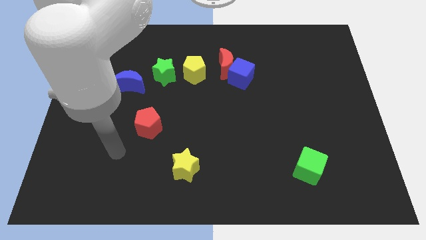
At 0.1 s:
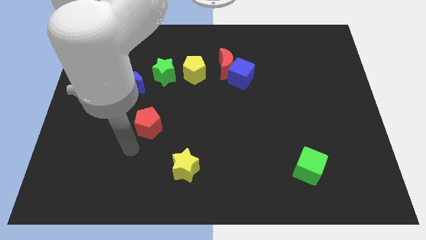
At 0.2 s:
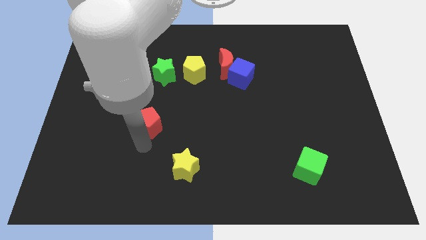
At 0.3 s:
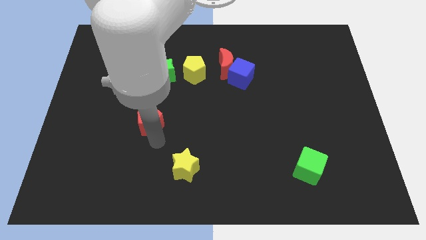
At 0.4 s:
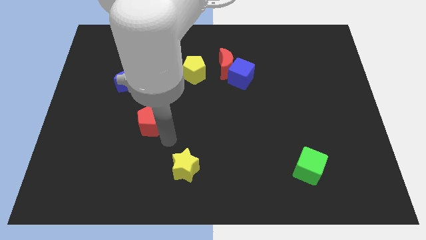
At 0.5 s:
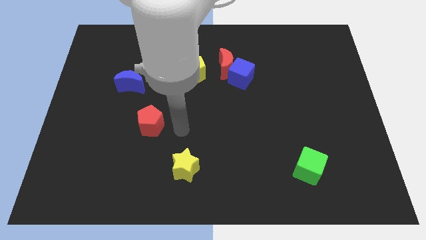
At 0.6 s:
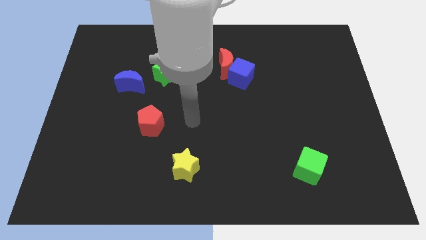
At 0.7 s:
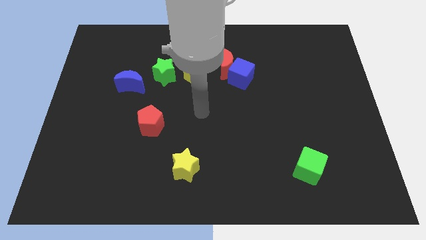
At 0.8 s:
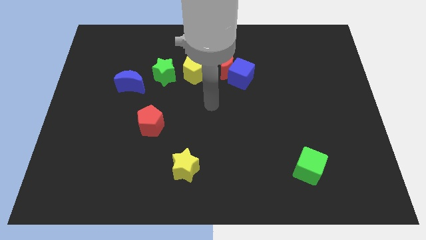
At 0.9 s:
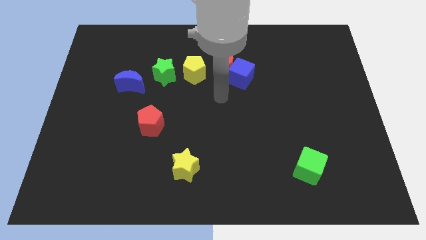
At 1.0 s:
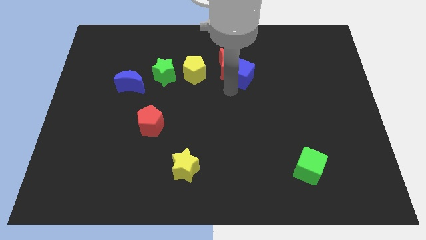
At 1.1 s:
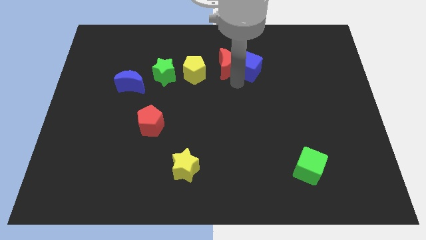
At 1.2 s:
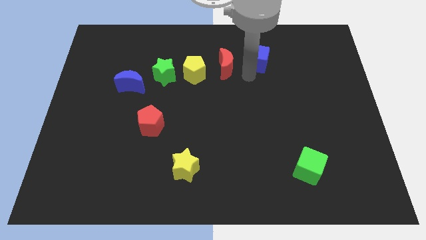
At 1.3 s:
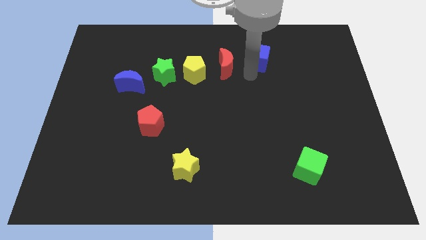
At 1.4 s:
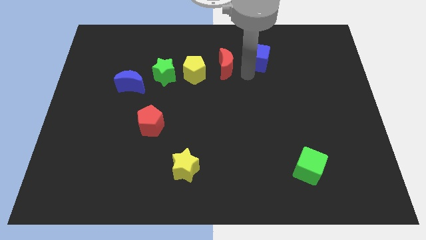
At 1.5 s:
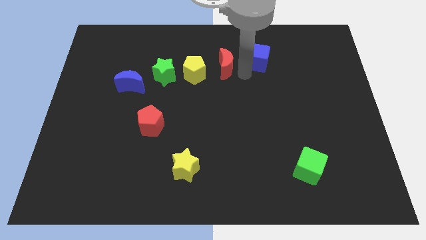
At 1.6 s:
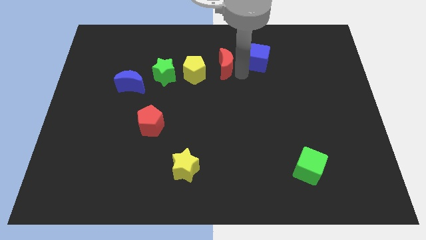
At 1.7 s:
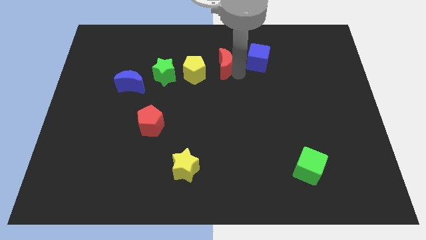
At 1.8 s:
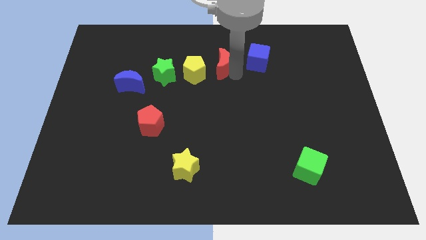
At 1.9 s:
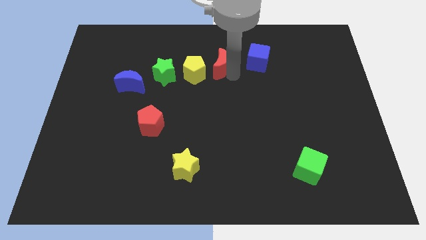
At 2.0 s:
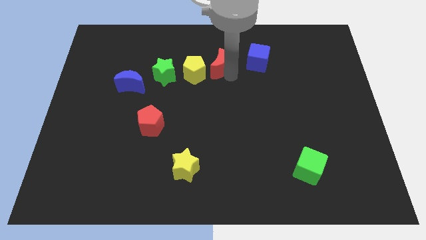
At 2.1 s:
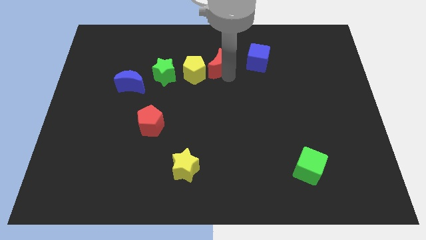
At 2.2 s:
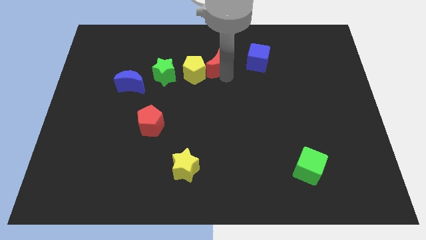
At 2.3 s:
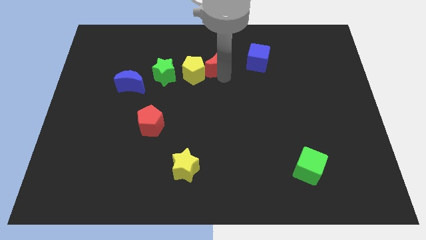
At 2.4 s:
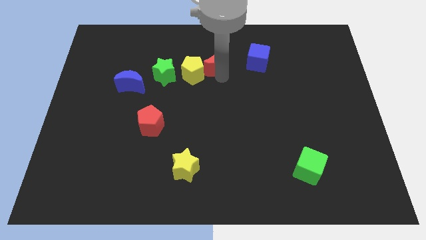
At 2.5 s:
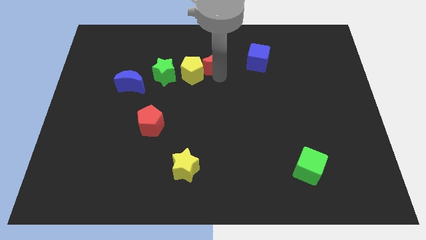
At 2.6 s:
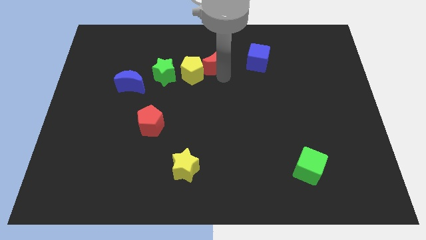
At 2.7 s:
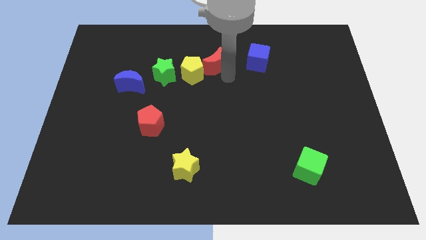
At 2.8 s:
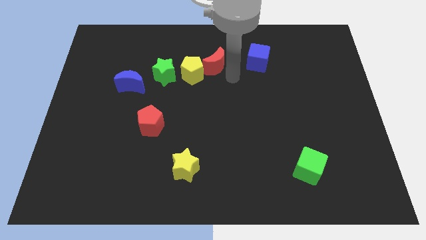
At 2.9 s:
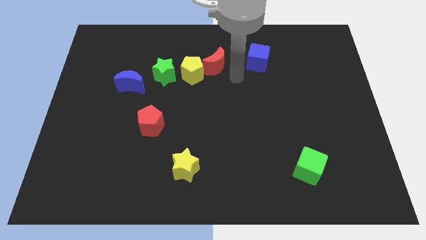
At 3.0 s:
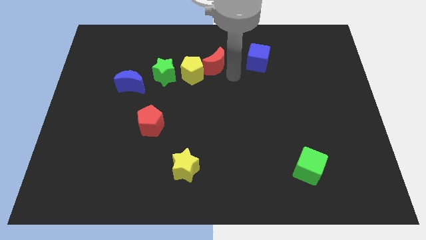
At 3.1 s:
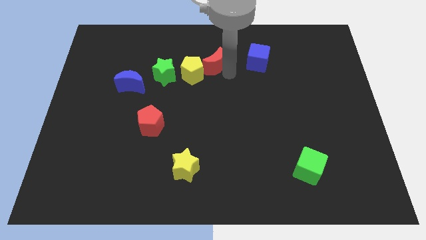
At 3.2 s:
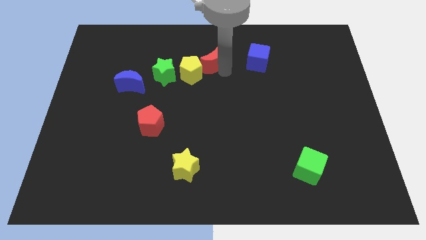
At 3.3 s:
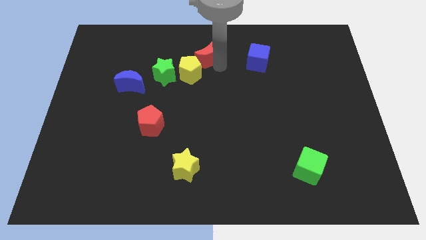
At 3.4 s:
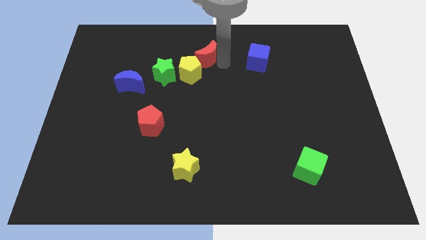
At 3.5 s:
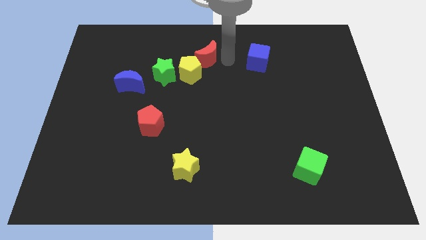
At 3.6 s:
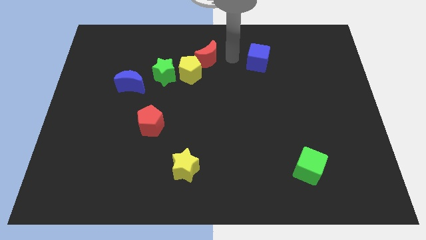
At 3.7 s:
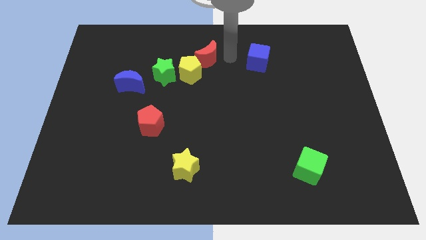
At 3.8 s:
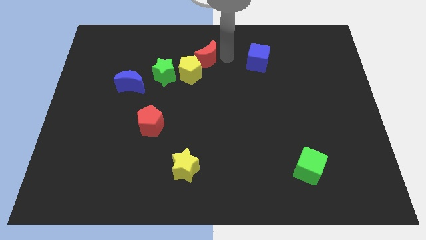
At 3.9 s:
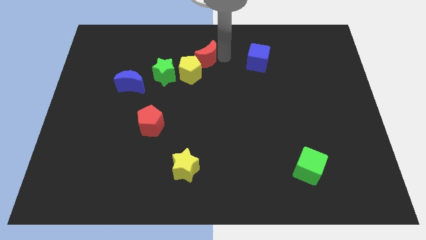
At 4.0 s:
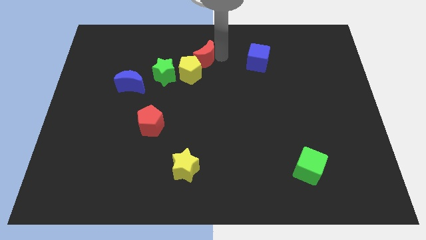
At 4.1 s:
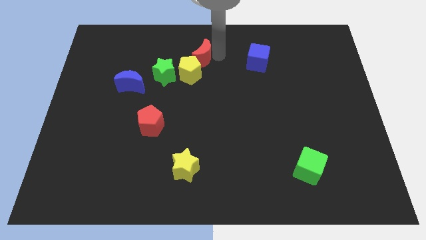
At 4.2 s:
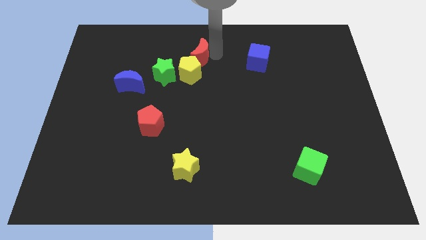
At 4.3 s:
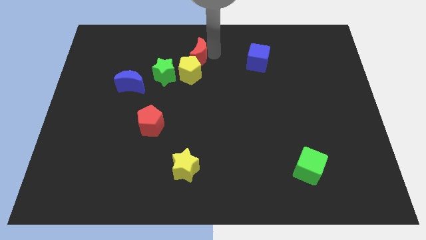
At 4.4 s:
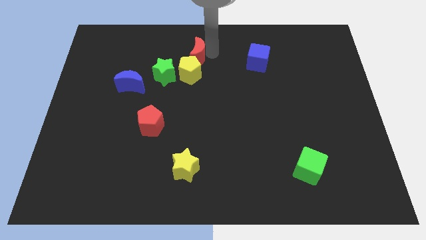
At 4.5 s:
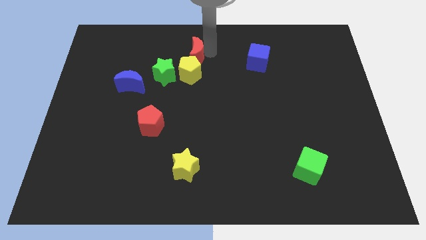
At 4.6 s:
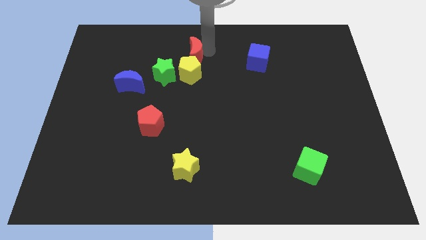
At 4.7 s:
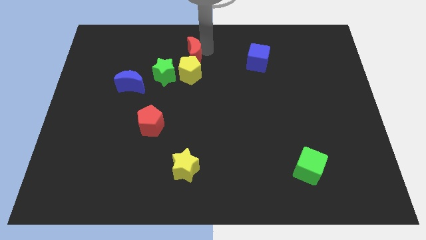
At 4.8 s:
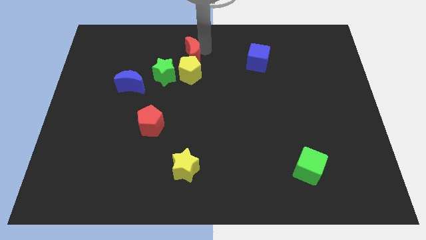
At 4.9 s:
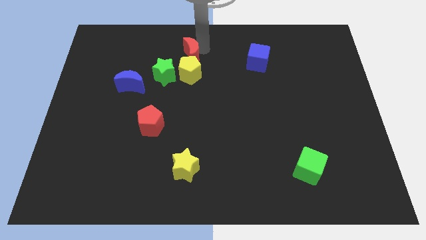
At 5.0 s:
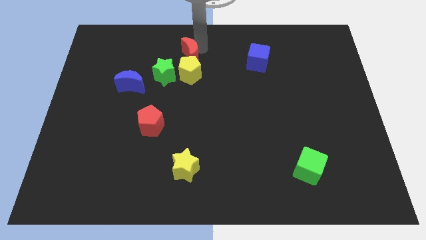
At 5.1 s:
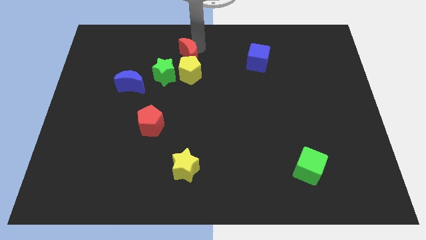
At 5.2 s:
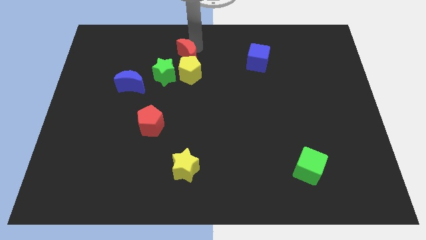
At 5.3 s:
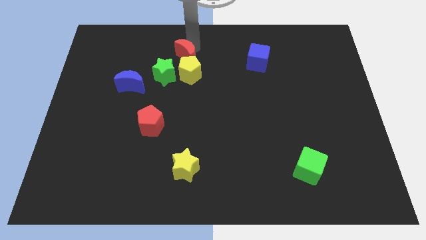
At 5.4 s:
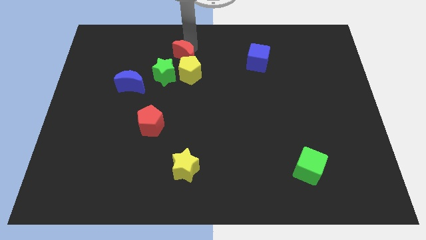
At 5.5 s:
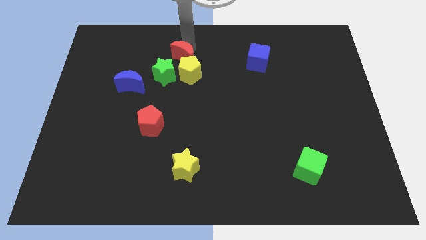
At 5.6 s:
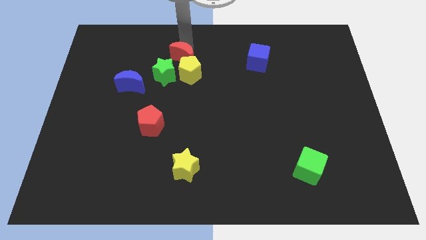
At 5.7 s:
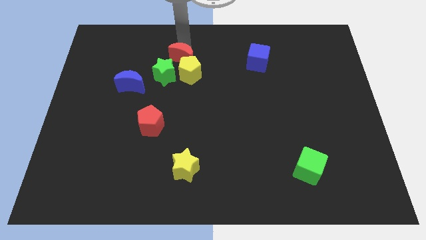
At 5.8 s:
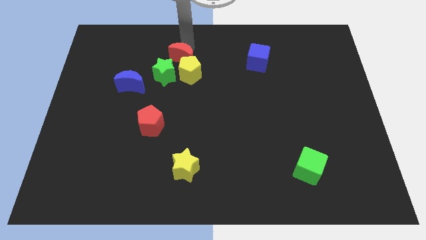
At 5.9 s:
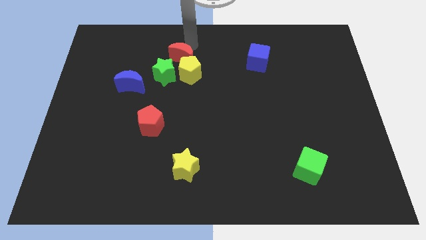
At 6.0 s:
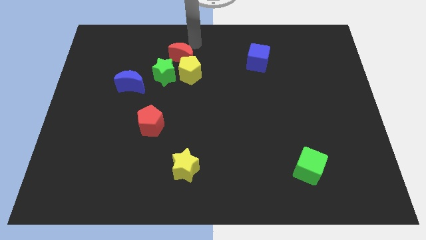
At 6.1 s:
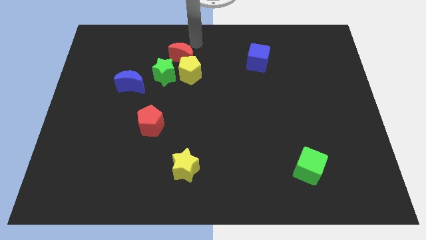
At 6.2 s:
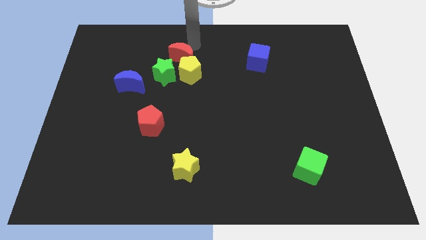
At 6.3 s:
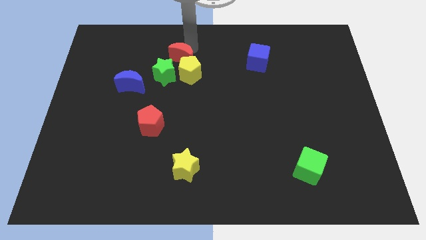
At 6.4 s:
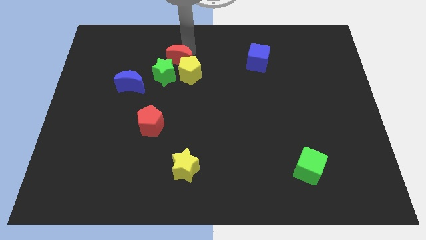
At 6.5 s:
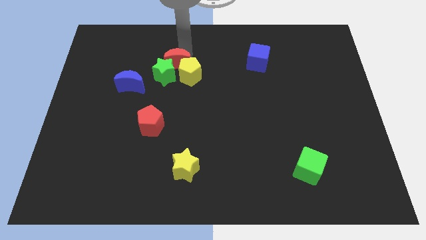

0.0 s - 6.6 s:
put the red moon next to the green star

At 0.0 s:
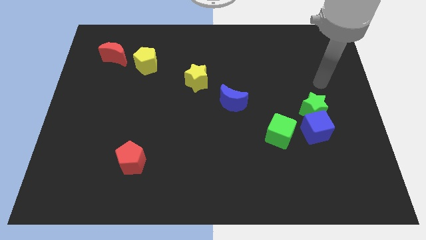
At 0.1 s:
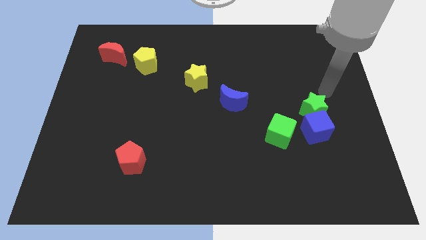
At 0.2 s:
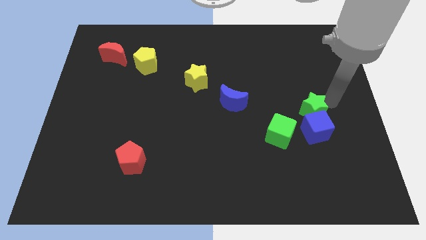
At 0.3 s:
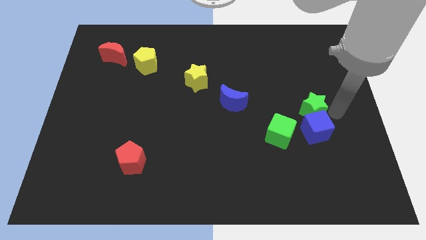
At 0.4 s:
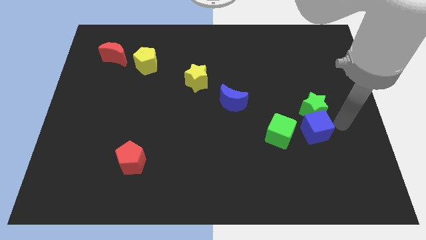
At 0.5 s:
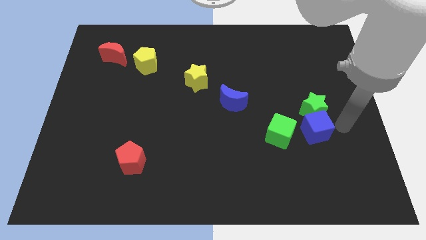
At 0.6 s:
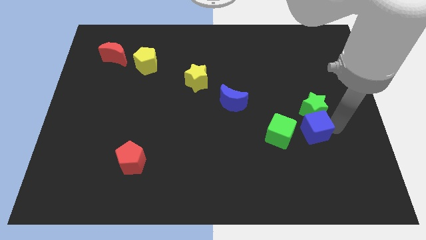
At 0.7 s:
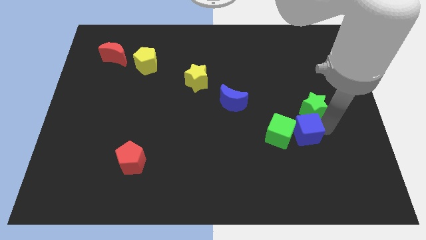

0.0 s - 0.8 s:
push the blue cube next to the green cube
